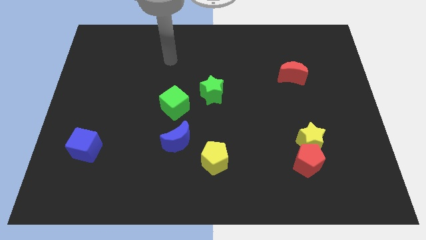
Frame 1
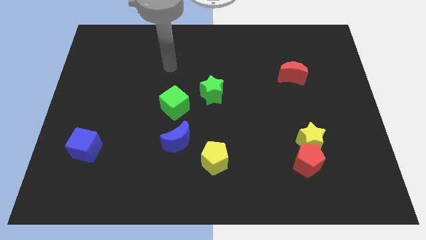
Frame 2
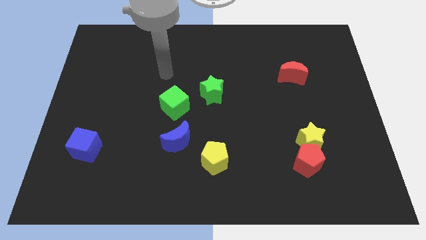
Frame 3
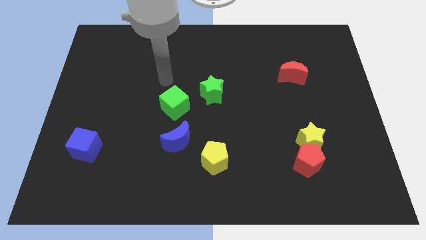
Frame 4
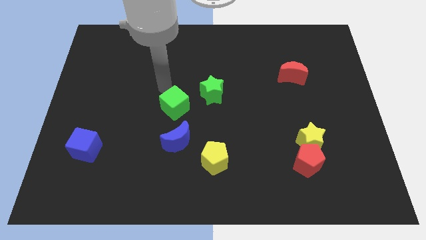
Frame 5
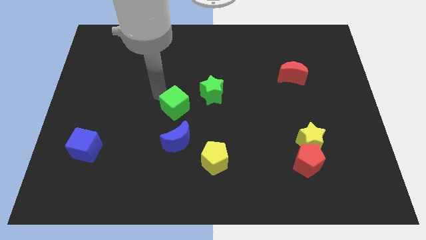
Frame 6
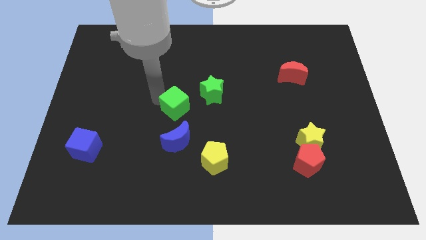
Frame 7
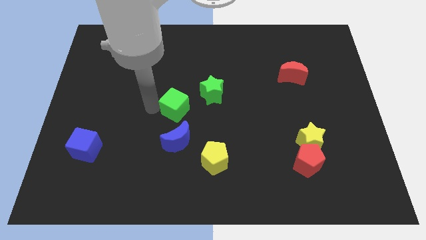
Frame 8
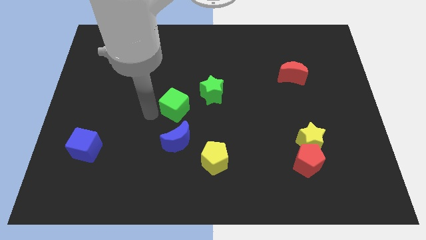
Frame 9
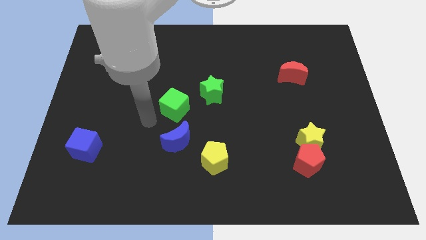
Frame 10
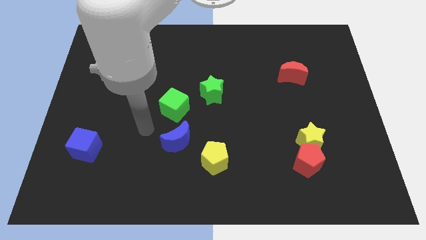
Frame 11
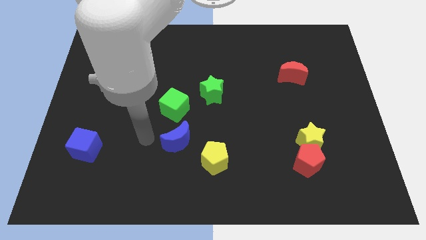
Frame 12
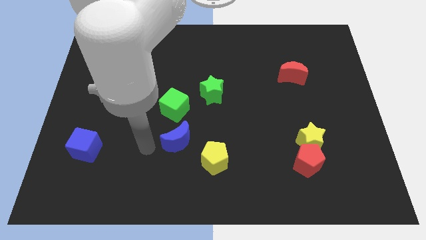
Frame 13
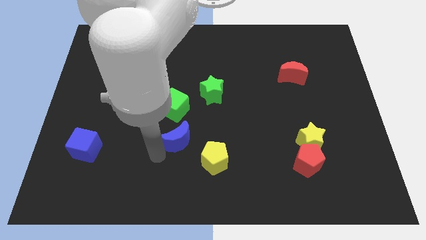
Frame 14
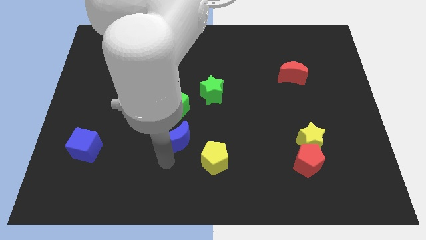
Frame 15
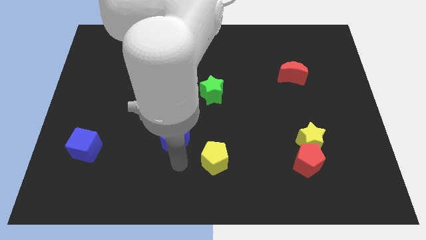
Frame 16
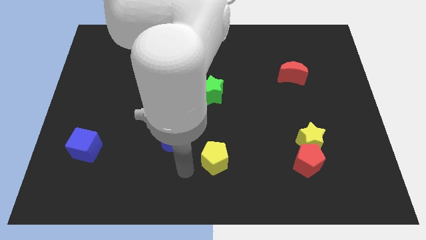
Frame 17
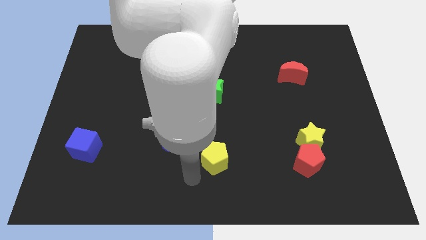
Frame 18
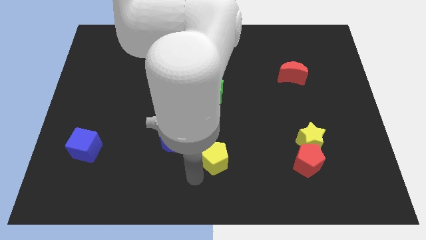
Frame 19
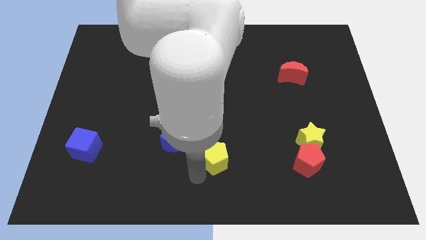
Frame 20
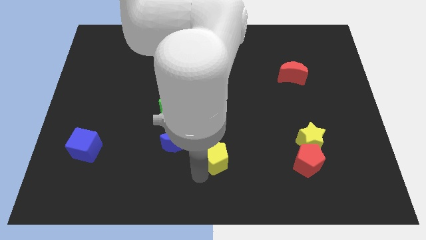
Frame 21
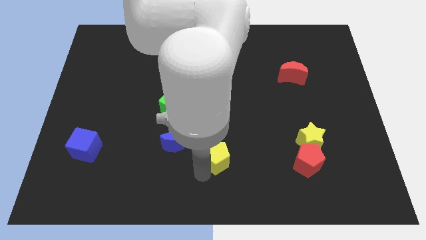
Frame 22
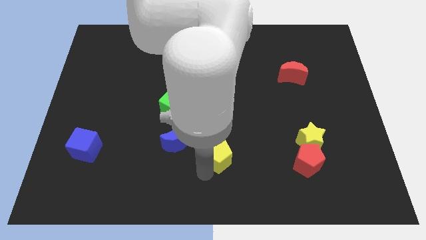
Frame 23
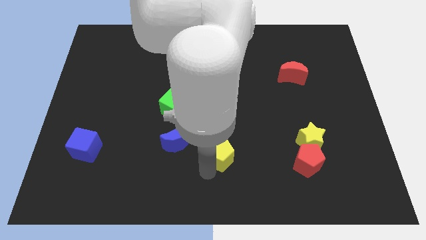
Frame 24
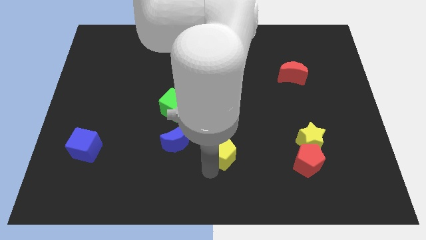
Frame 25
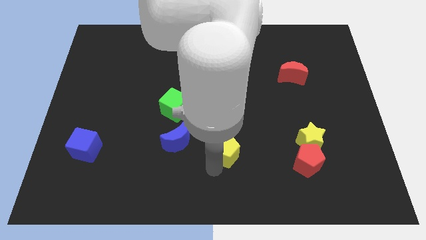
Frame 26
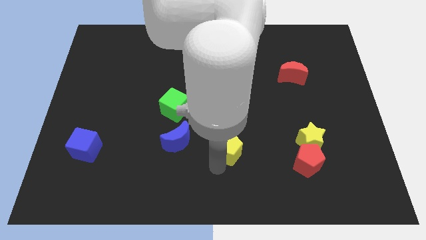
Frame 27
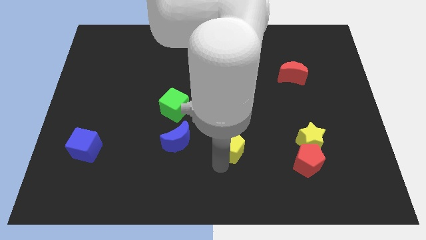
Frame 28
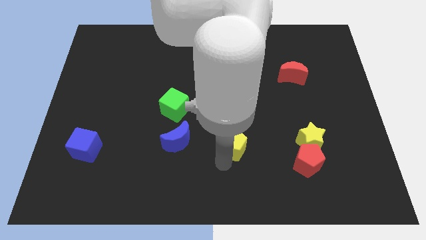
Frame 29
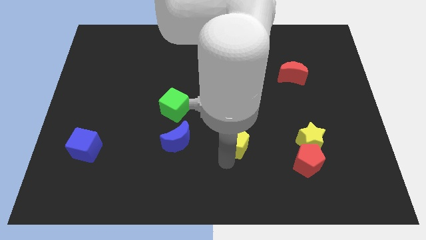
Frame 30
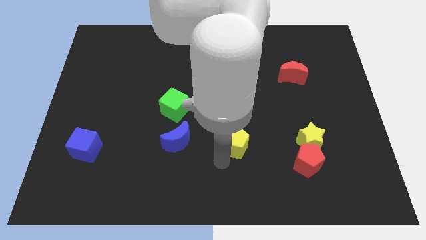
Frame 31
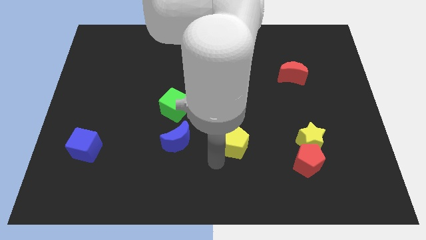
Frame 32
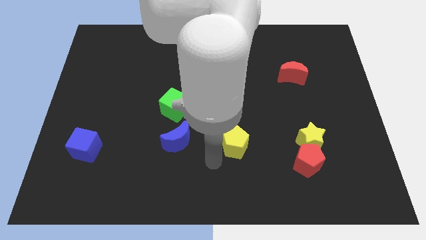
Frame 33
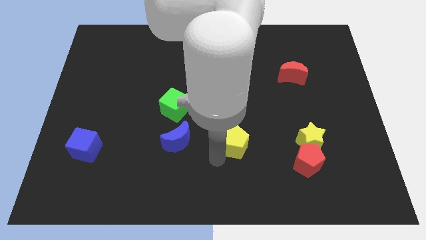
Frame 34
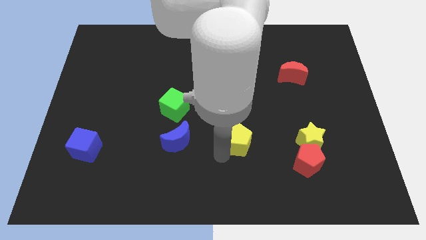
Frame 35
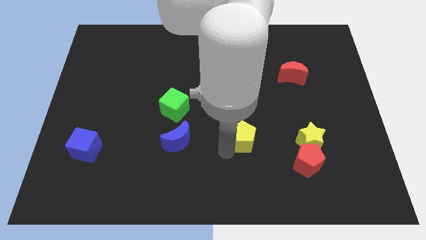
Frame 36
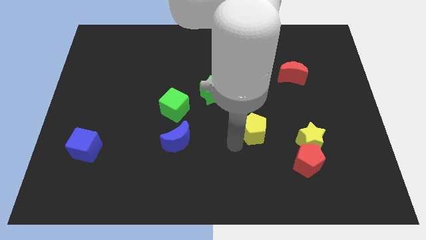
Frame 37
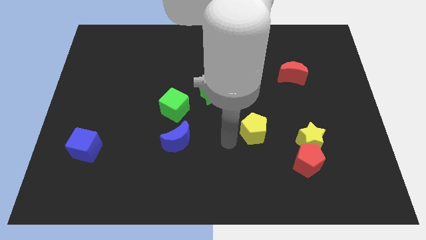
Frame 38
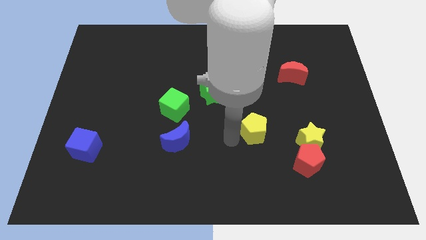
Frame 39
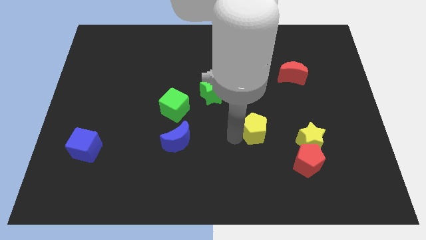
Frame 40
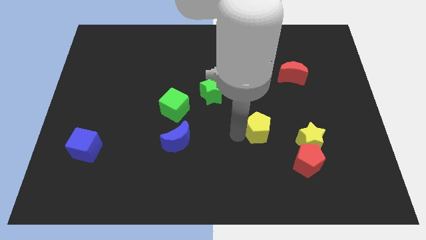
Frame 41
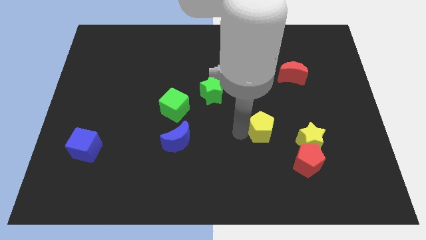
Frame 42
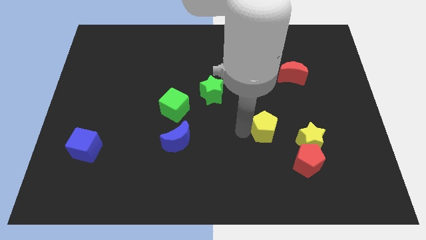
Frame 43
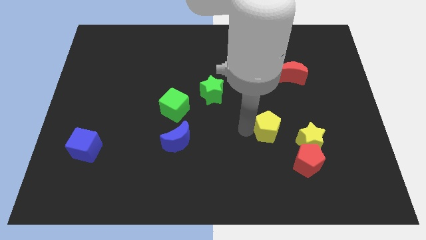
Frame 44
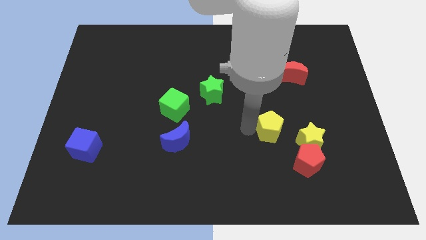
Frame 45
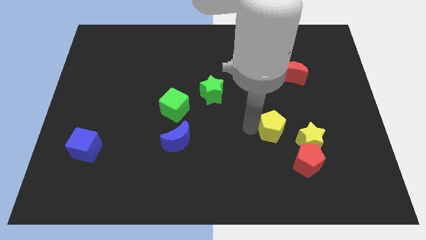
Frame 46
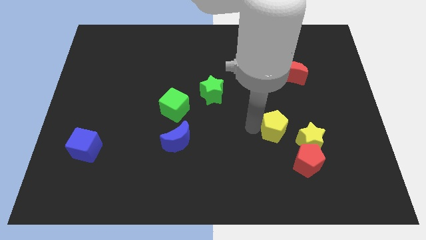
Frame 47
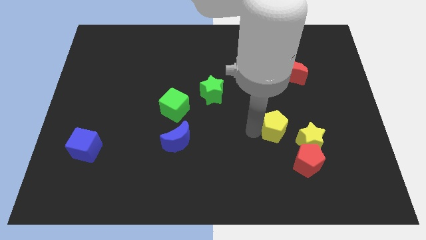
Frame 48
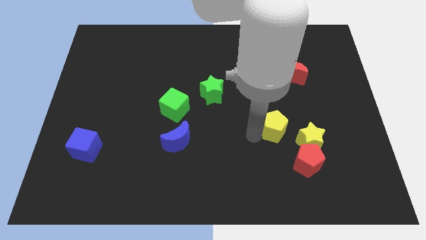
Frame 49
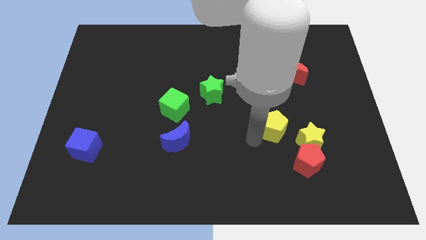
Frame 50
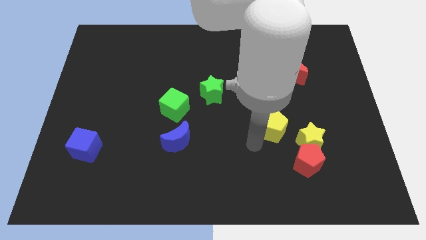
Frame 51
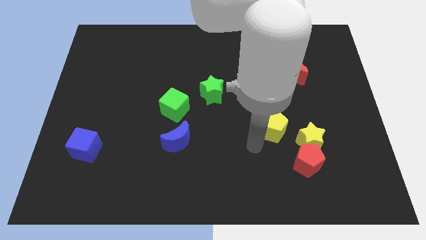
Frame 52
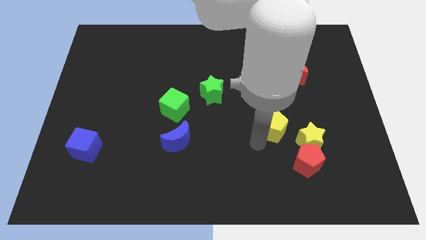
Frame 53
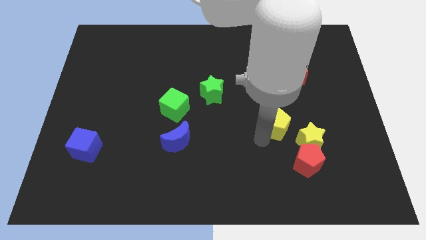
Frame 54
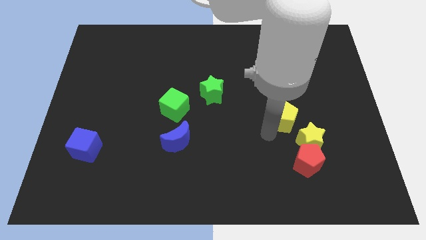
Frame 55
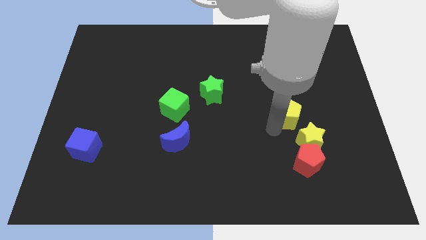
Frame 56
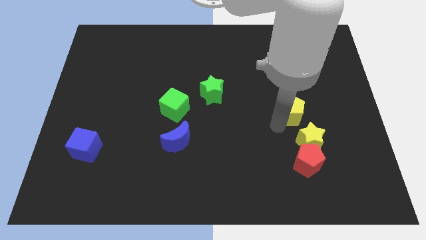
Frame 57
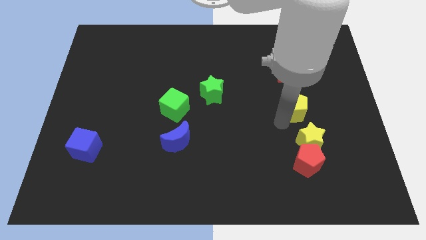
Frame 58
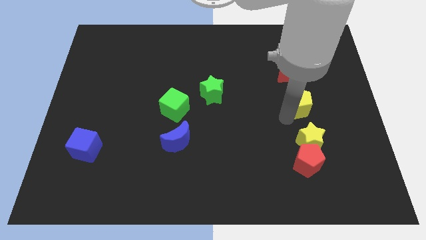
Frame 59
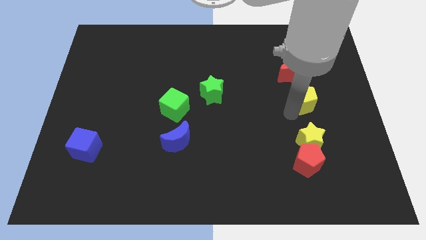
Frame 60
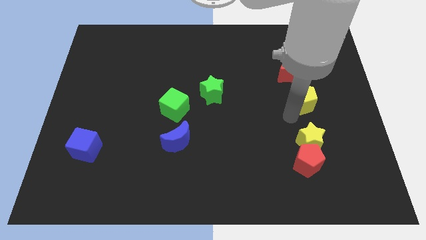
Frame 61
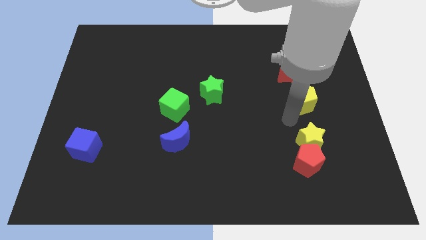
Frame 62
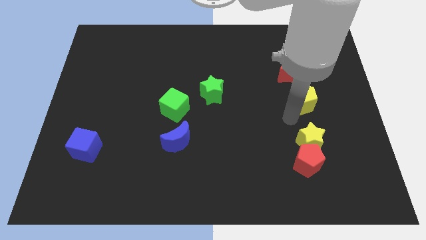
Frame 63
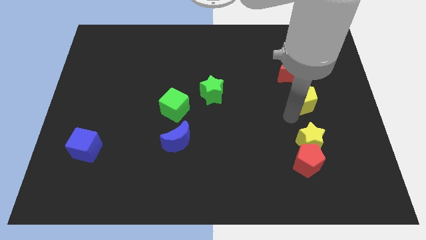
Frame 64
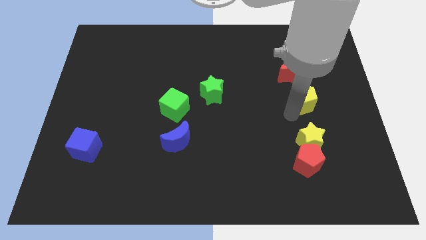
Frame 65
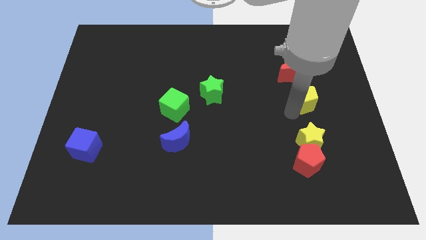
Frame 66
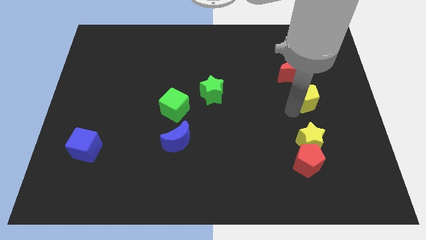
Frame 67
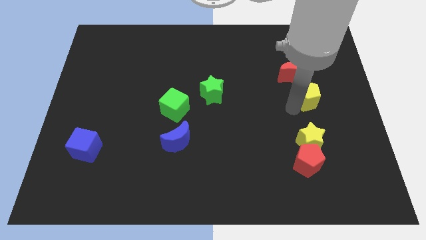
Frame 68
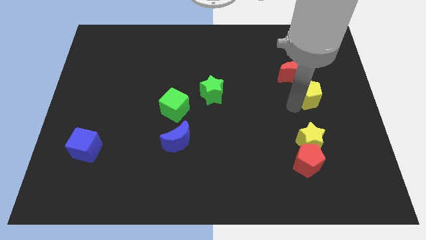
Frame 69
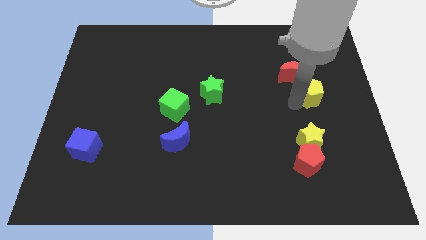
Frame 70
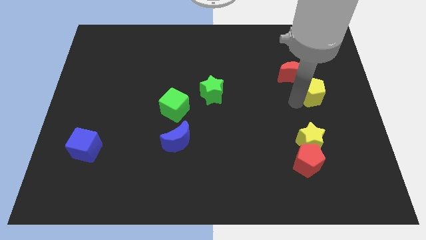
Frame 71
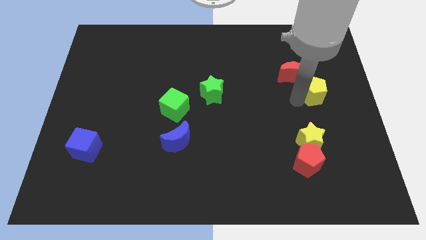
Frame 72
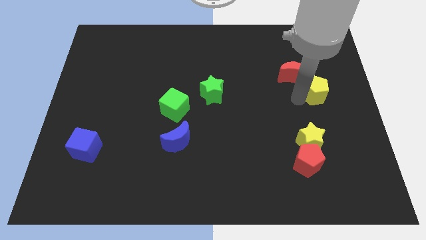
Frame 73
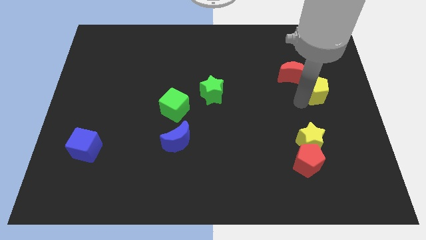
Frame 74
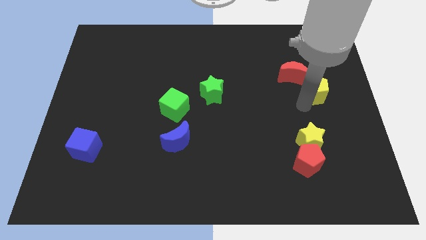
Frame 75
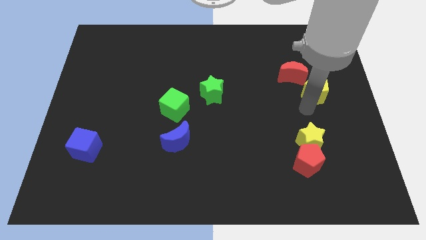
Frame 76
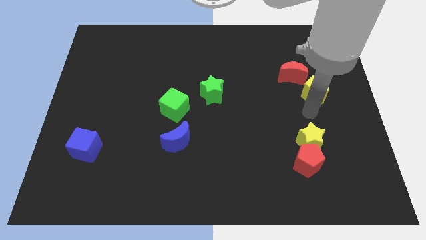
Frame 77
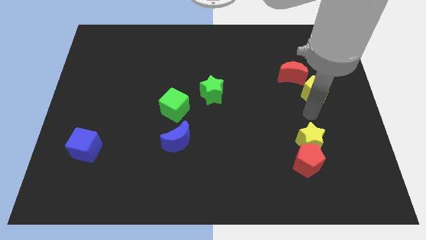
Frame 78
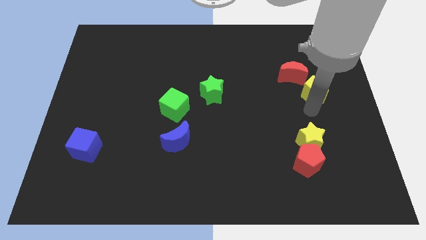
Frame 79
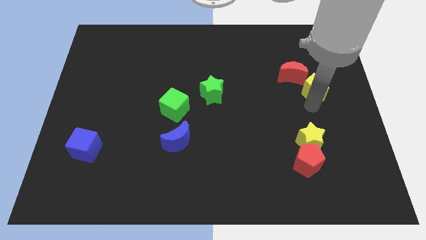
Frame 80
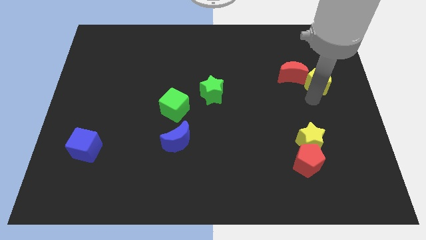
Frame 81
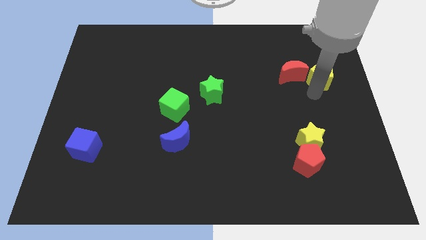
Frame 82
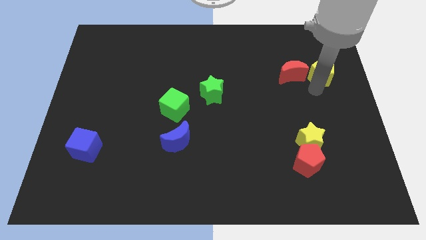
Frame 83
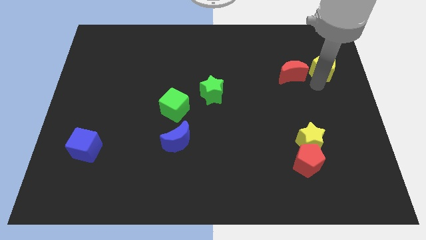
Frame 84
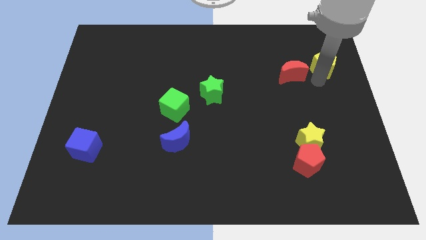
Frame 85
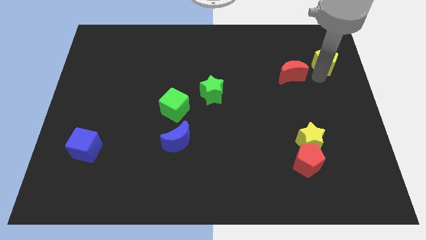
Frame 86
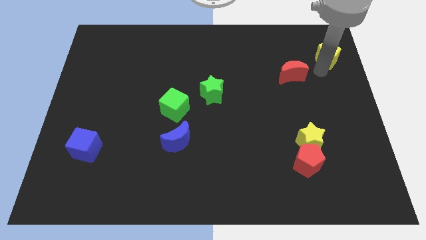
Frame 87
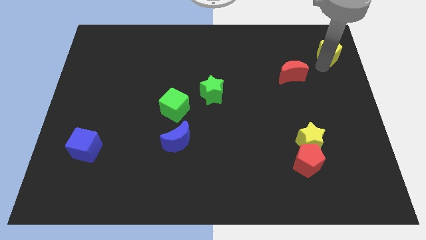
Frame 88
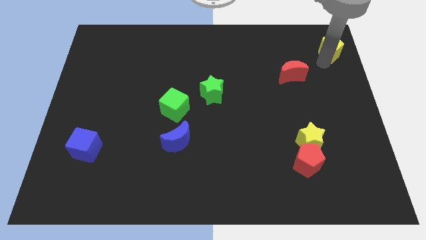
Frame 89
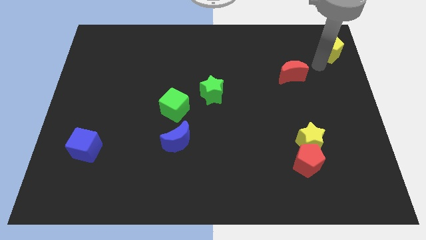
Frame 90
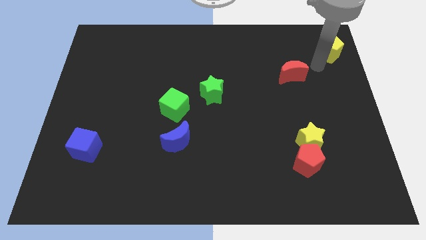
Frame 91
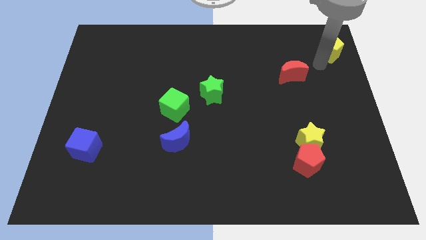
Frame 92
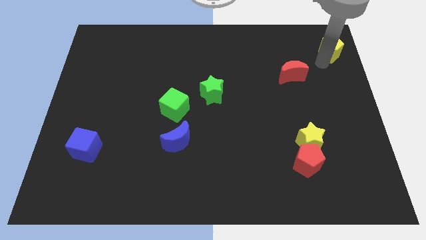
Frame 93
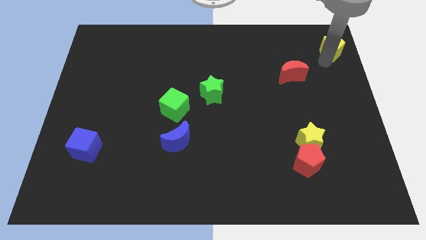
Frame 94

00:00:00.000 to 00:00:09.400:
slide the yellow pentagon to the top right
